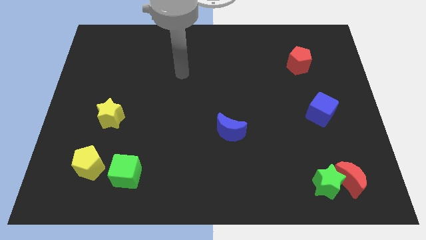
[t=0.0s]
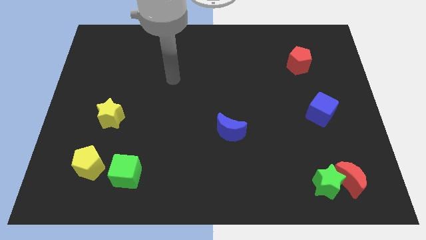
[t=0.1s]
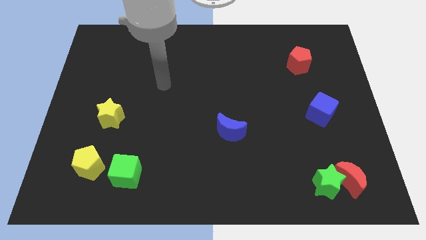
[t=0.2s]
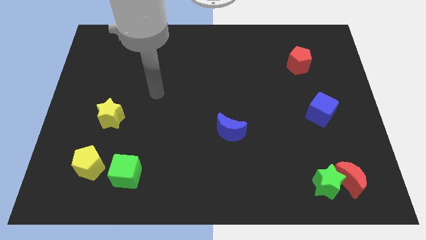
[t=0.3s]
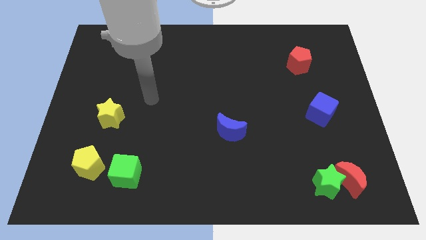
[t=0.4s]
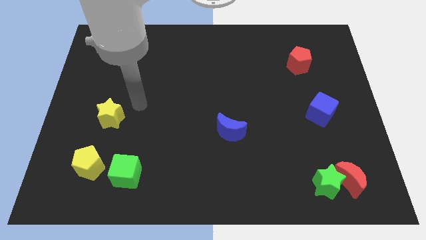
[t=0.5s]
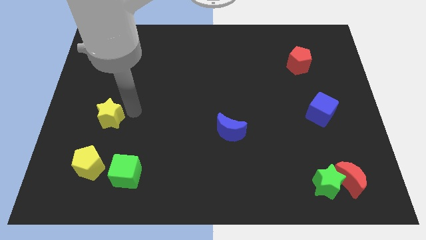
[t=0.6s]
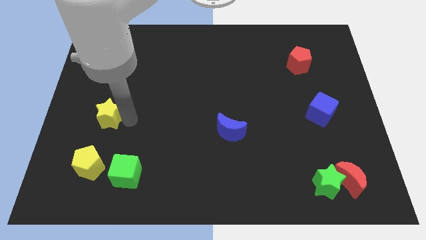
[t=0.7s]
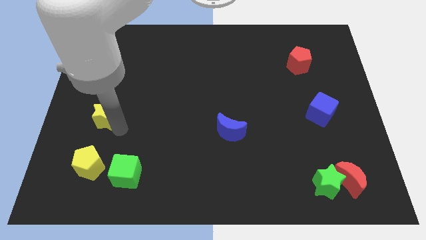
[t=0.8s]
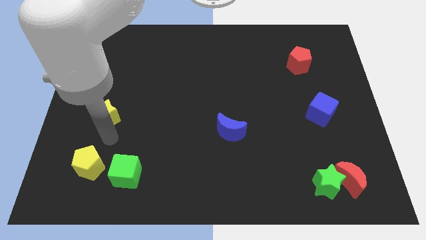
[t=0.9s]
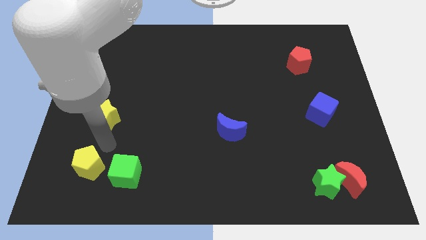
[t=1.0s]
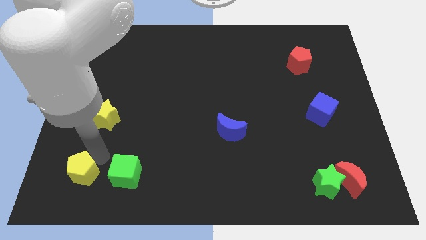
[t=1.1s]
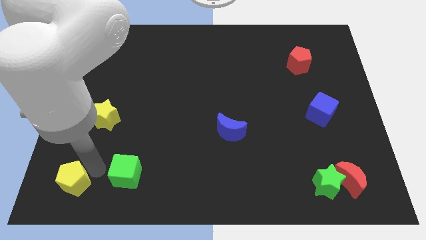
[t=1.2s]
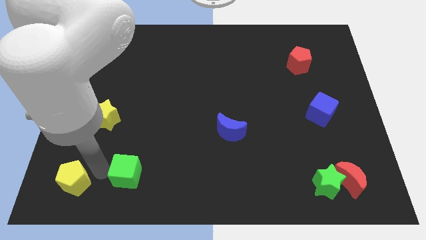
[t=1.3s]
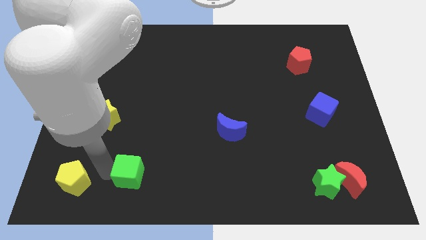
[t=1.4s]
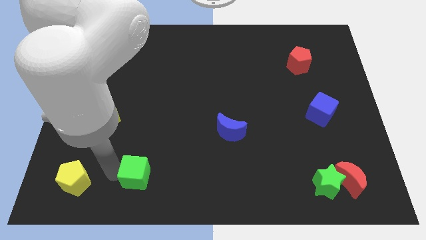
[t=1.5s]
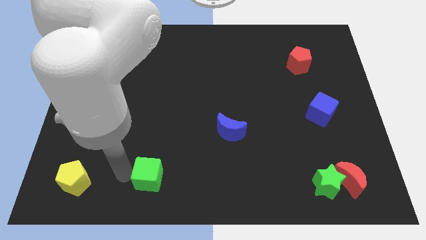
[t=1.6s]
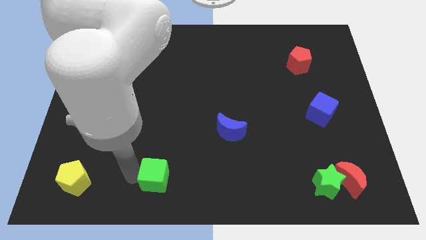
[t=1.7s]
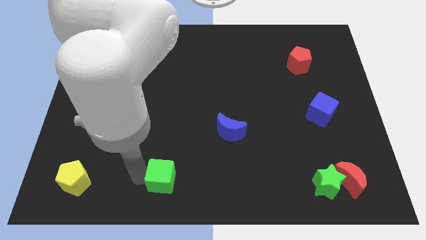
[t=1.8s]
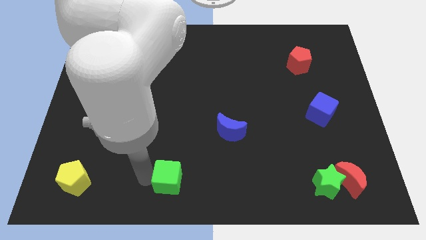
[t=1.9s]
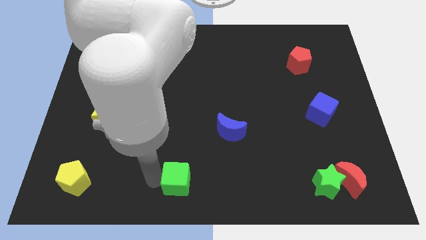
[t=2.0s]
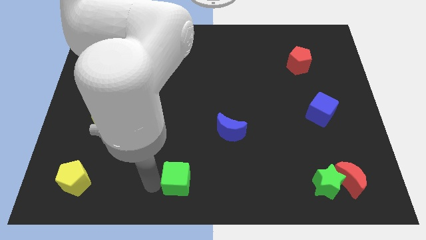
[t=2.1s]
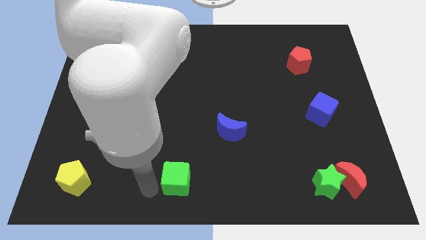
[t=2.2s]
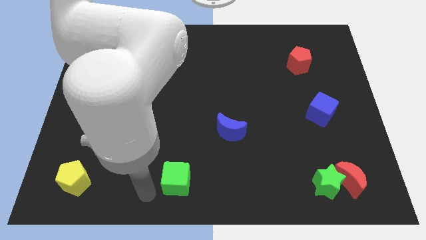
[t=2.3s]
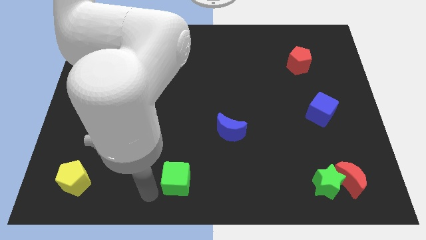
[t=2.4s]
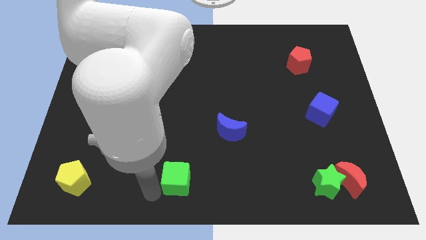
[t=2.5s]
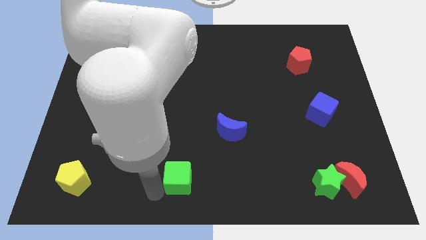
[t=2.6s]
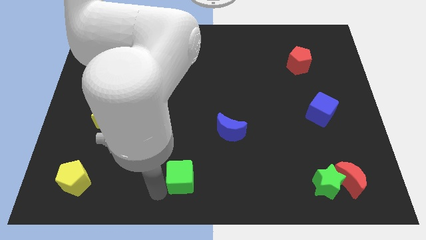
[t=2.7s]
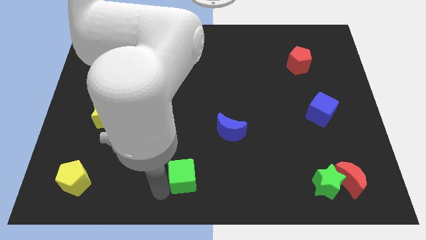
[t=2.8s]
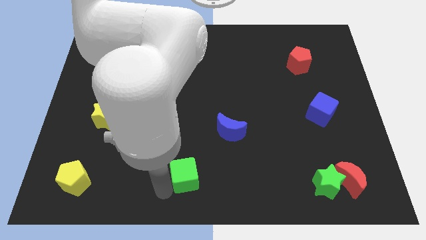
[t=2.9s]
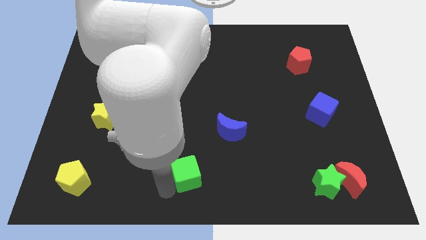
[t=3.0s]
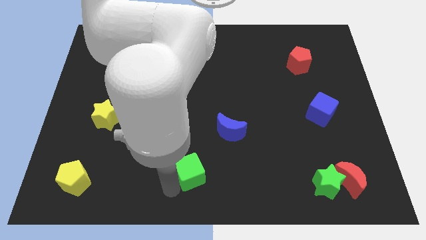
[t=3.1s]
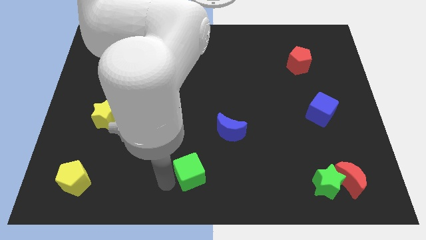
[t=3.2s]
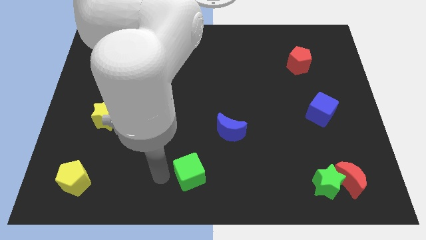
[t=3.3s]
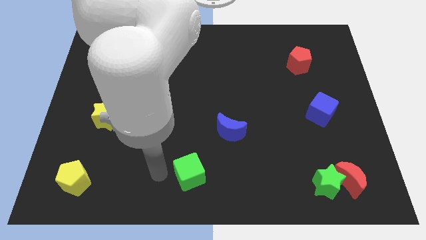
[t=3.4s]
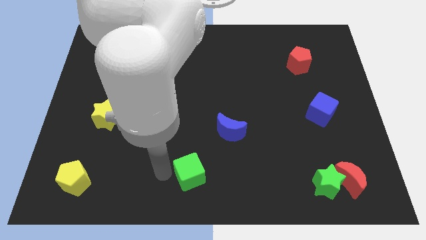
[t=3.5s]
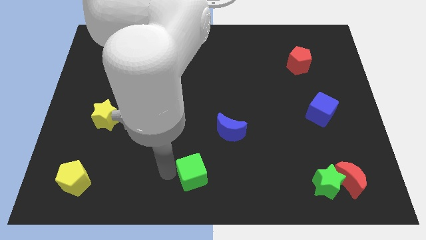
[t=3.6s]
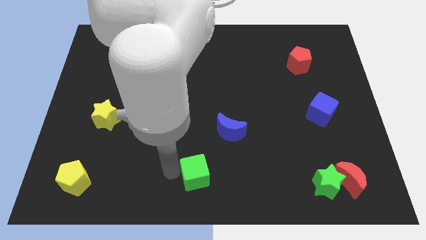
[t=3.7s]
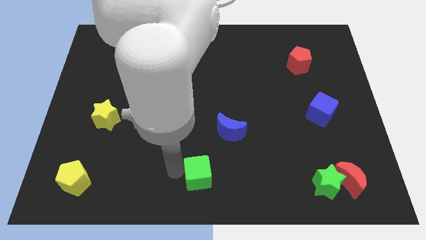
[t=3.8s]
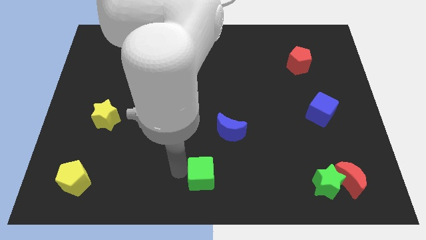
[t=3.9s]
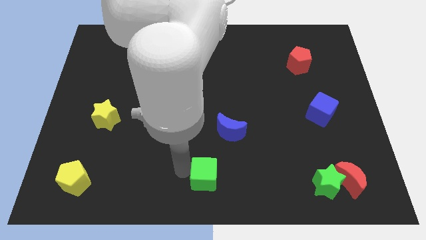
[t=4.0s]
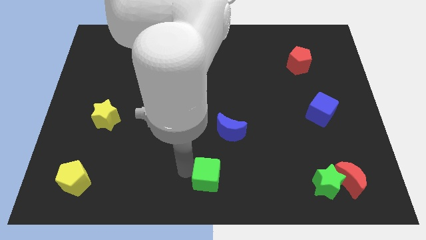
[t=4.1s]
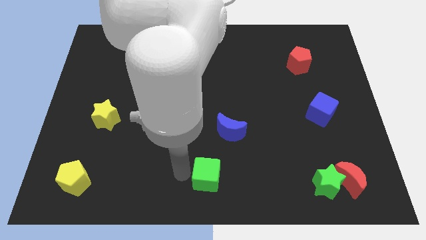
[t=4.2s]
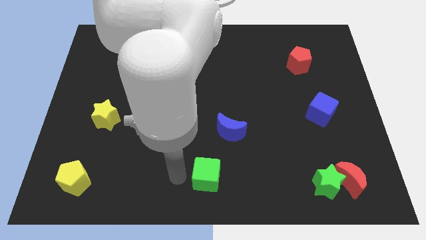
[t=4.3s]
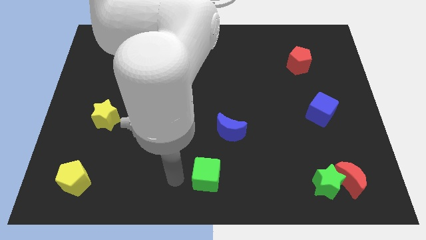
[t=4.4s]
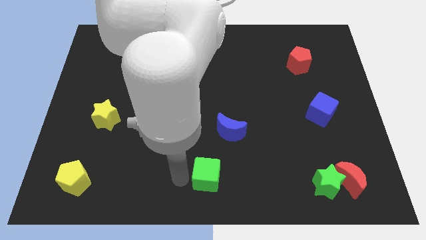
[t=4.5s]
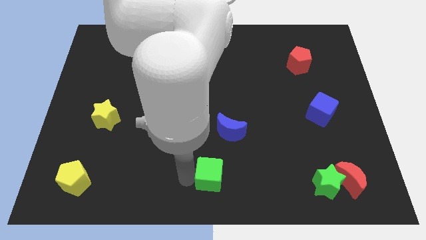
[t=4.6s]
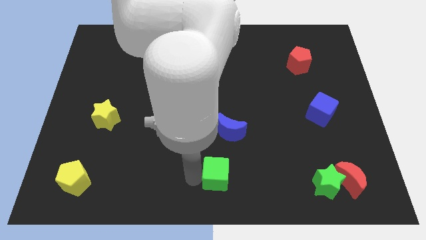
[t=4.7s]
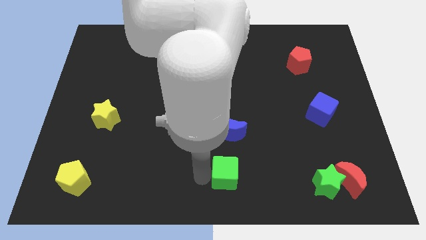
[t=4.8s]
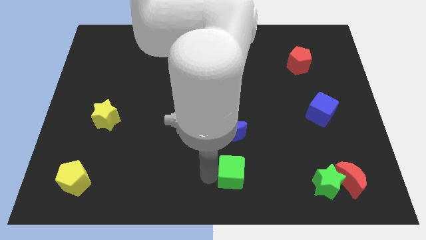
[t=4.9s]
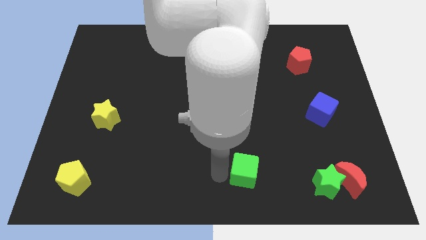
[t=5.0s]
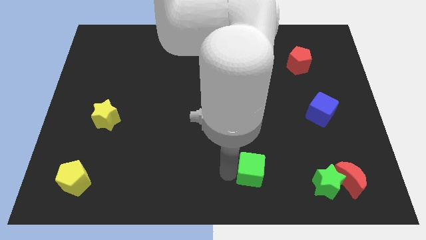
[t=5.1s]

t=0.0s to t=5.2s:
push the green cube just left of the green star

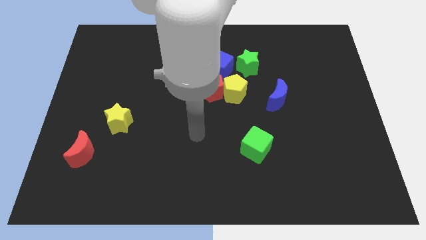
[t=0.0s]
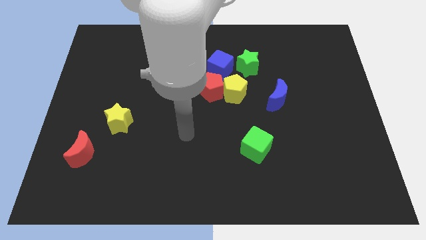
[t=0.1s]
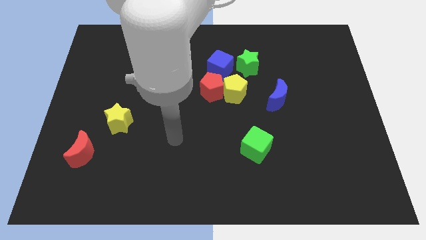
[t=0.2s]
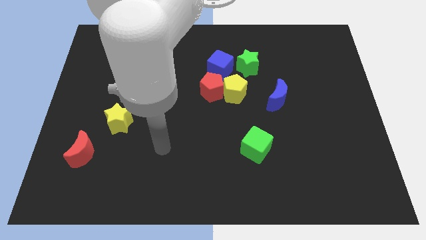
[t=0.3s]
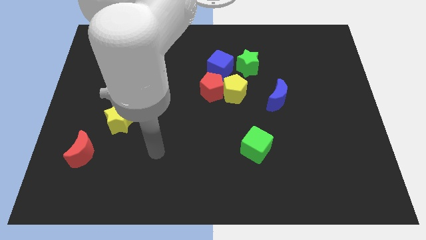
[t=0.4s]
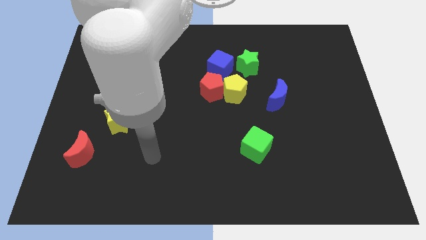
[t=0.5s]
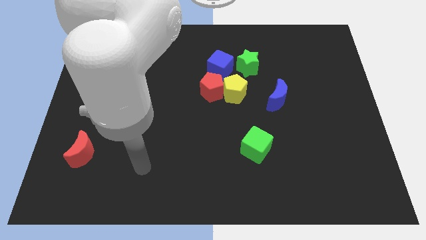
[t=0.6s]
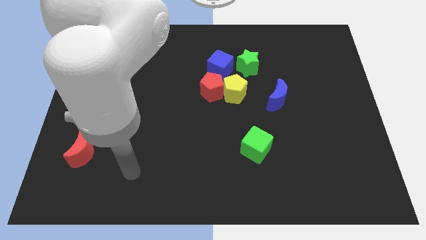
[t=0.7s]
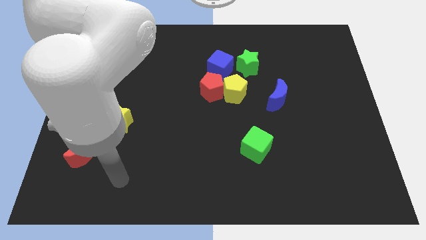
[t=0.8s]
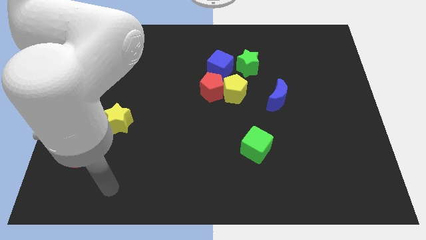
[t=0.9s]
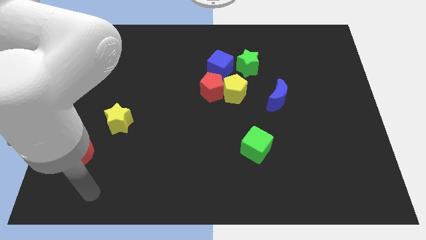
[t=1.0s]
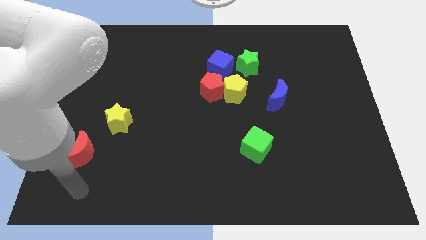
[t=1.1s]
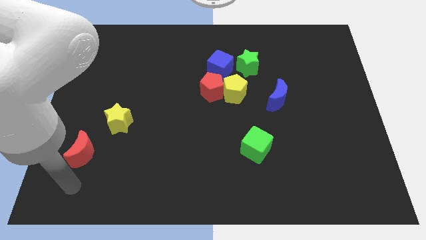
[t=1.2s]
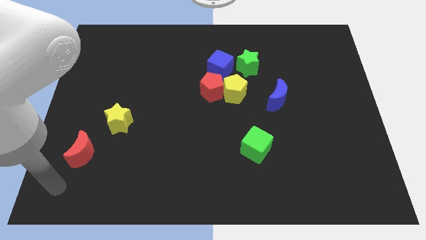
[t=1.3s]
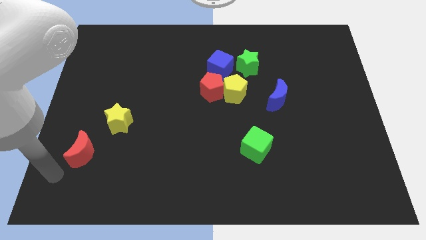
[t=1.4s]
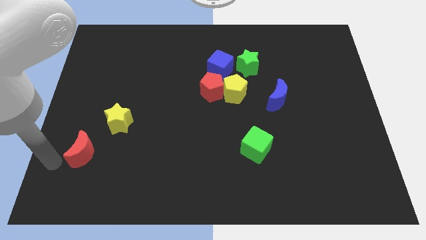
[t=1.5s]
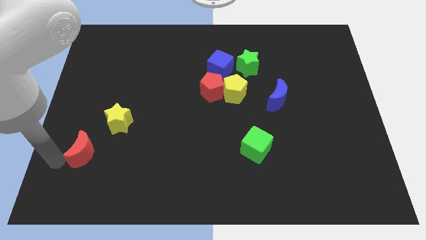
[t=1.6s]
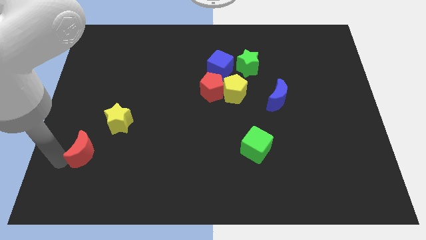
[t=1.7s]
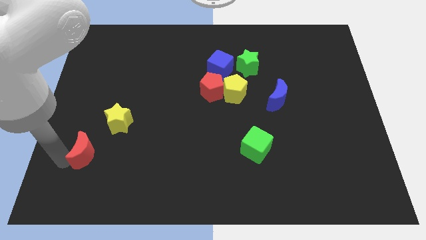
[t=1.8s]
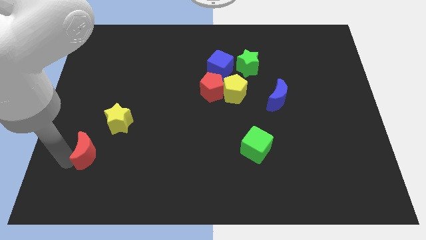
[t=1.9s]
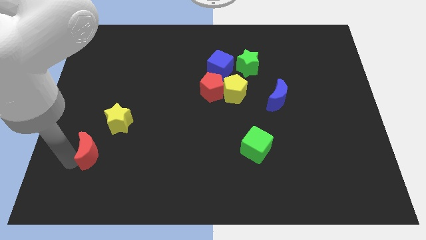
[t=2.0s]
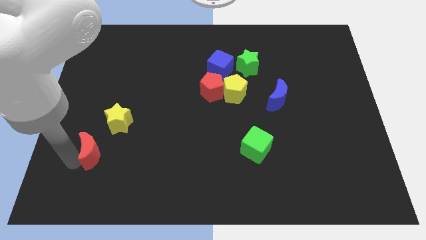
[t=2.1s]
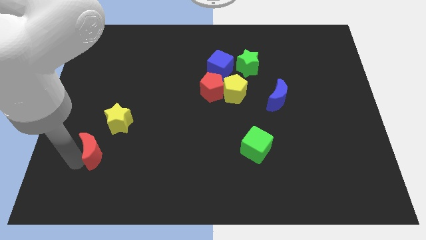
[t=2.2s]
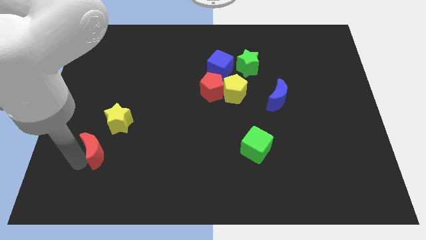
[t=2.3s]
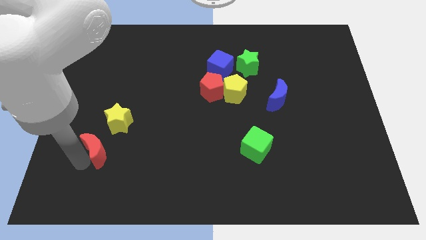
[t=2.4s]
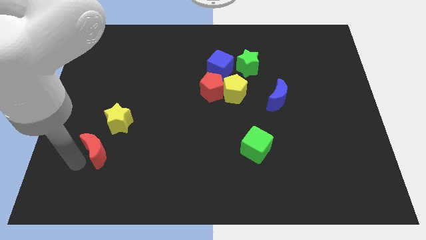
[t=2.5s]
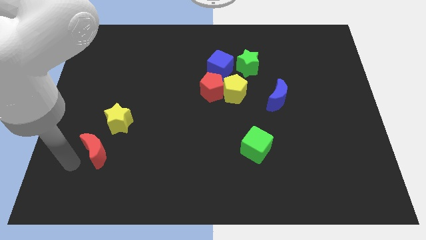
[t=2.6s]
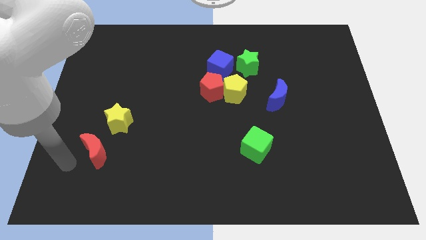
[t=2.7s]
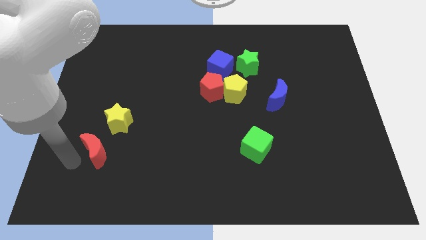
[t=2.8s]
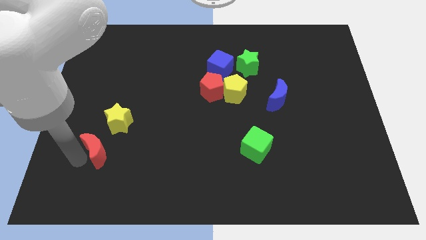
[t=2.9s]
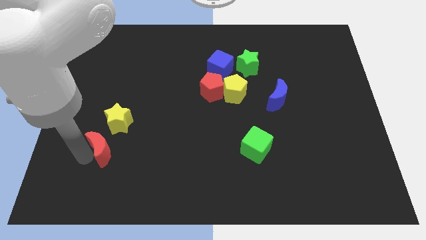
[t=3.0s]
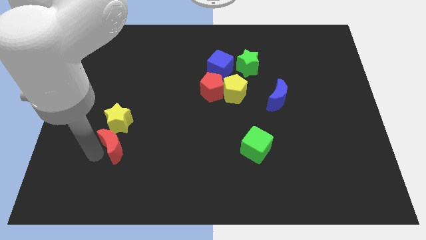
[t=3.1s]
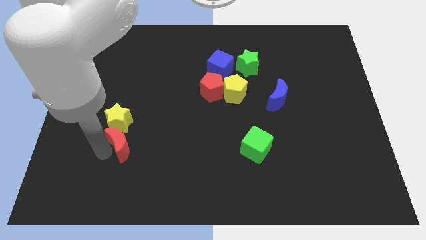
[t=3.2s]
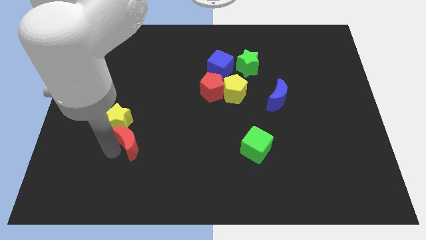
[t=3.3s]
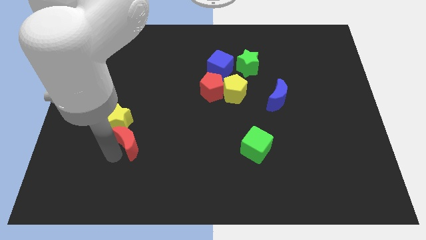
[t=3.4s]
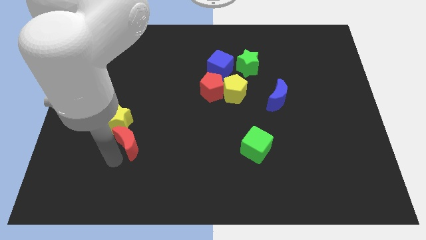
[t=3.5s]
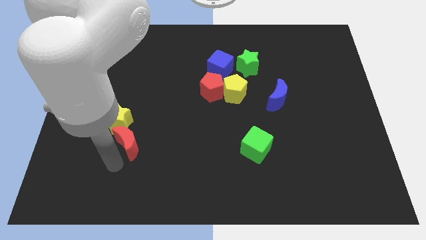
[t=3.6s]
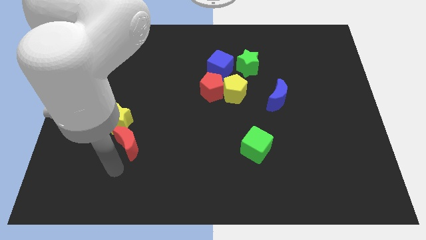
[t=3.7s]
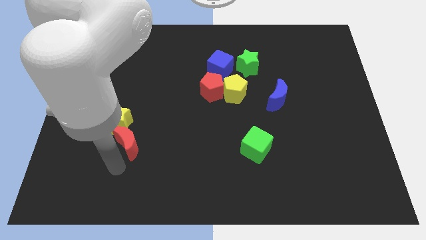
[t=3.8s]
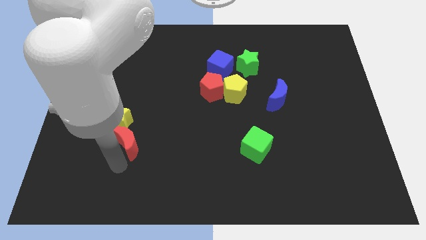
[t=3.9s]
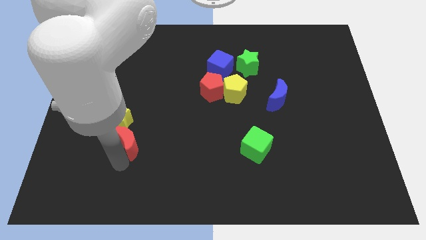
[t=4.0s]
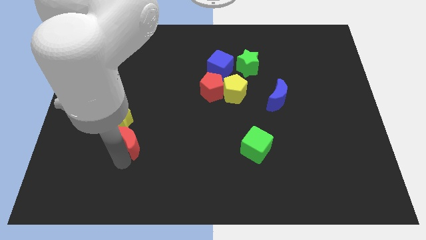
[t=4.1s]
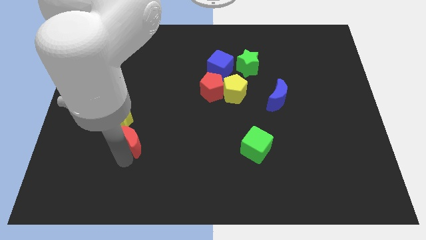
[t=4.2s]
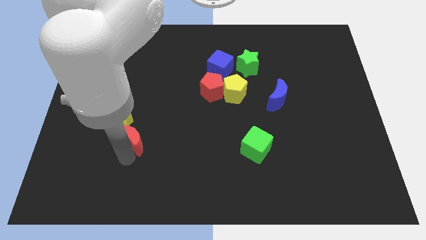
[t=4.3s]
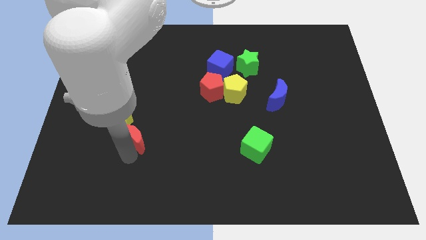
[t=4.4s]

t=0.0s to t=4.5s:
put the red moon to the right side of the yellow star
